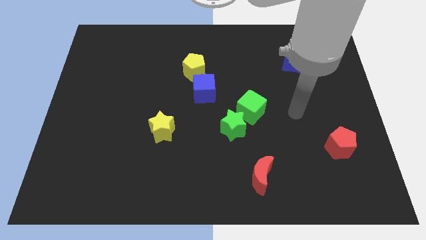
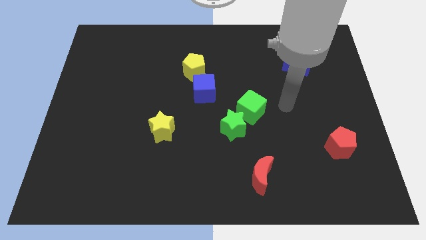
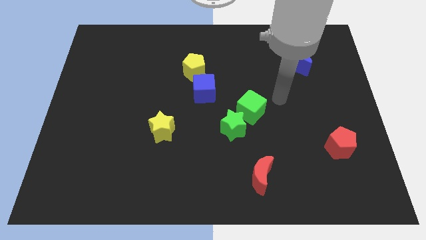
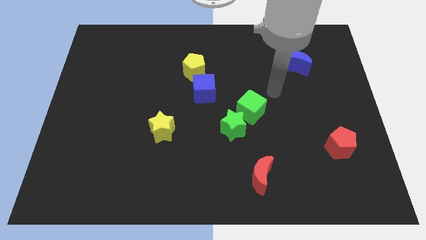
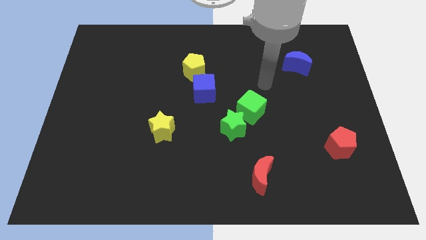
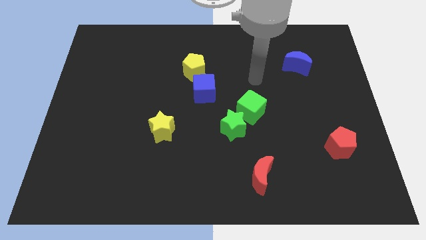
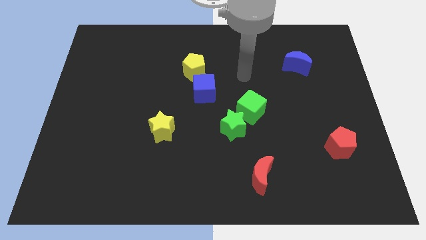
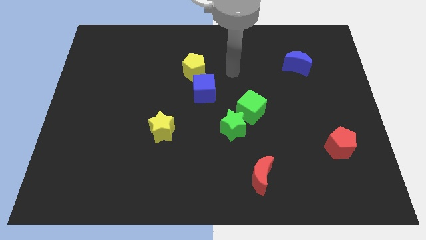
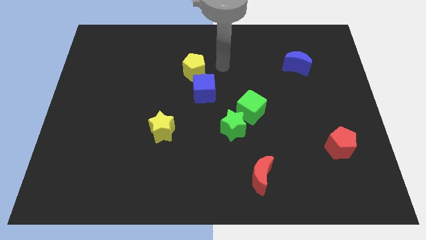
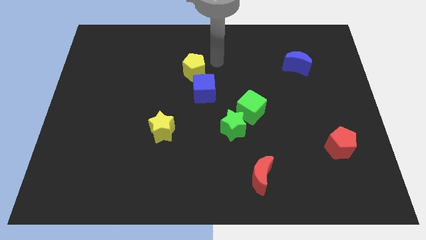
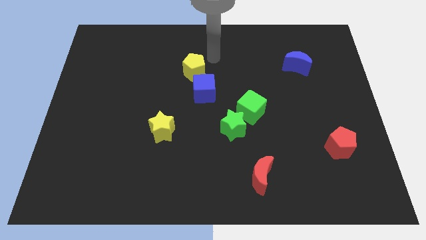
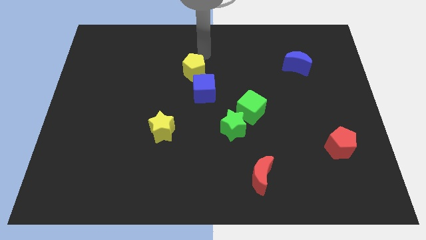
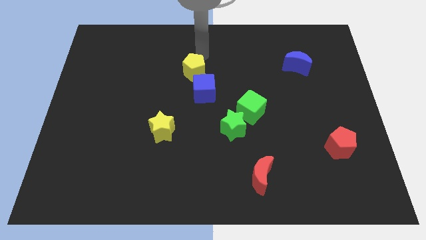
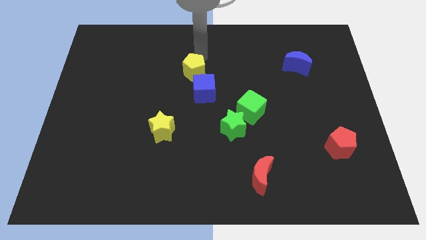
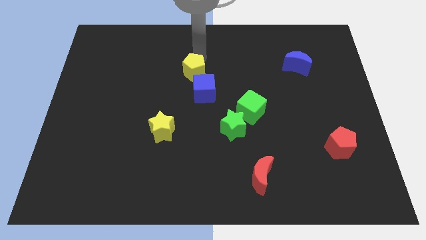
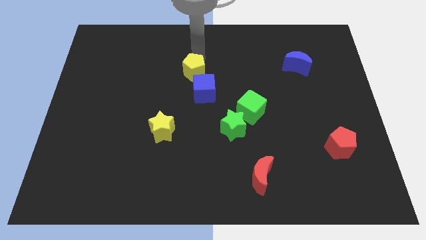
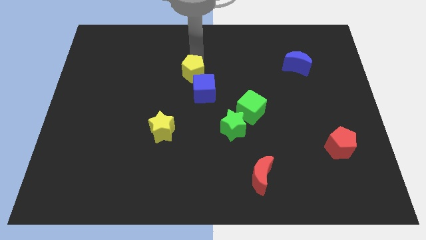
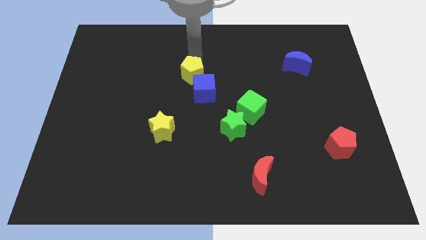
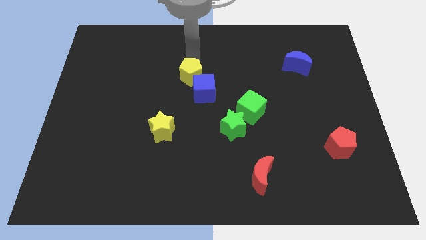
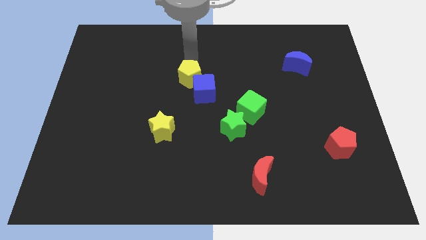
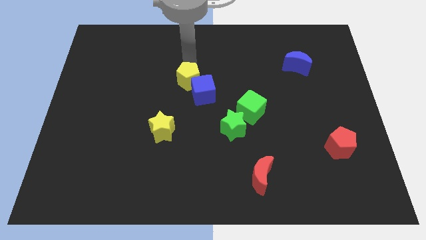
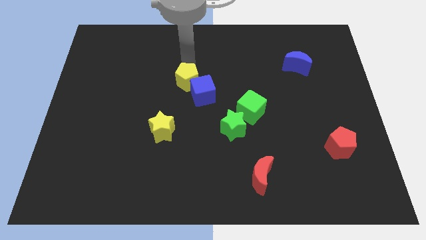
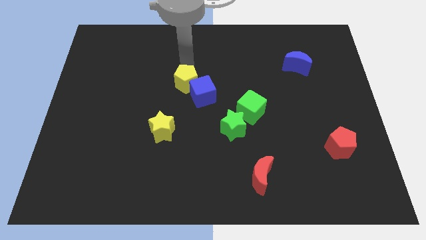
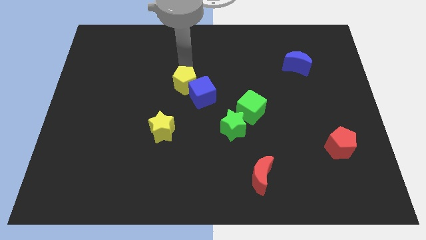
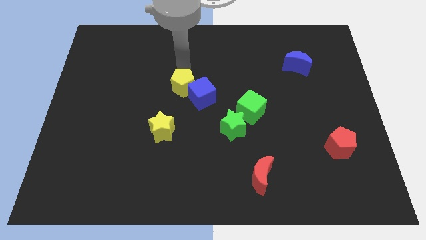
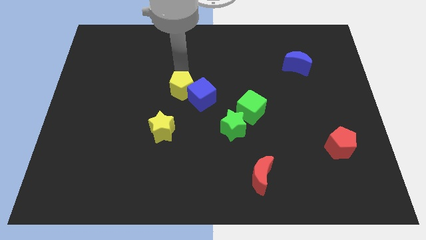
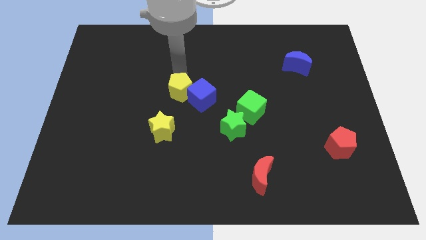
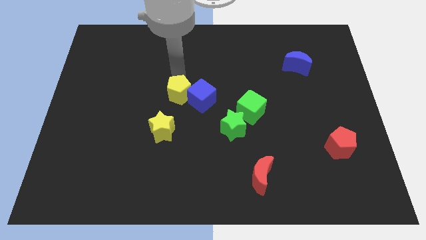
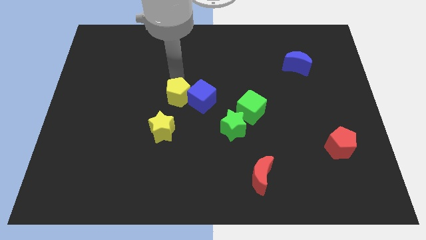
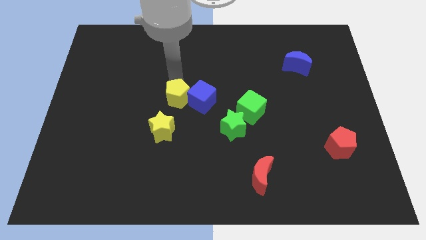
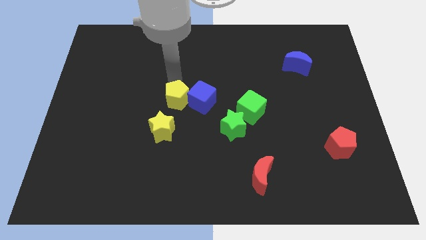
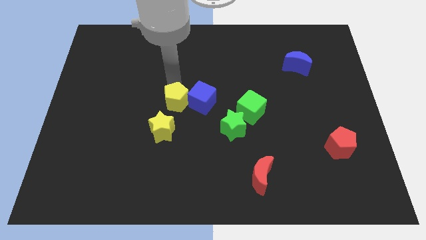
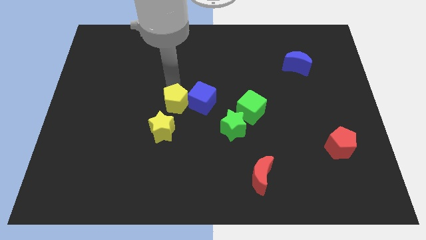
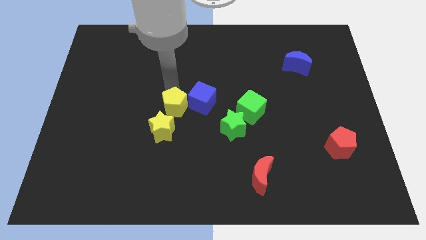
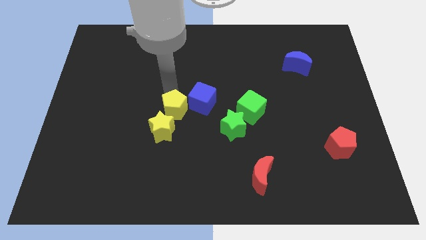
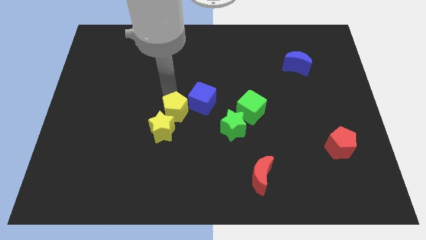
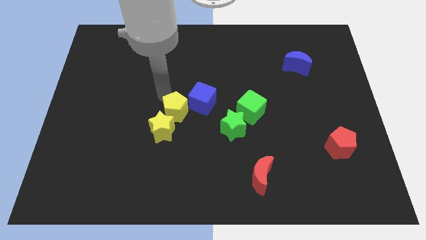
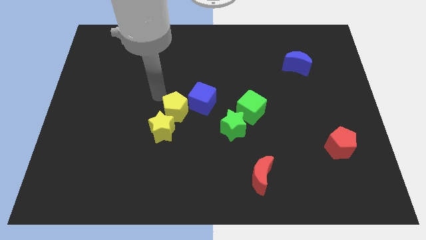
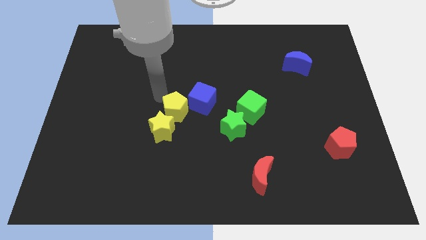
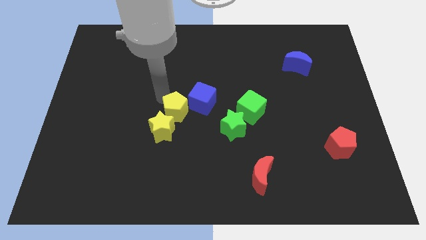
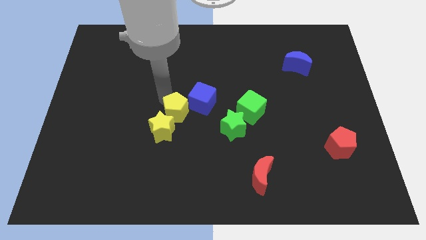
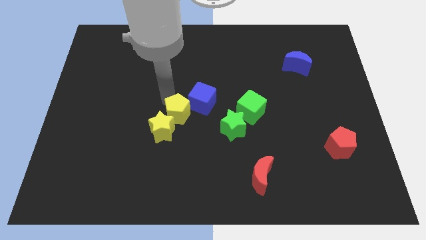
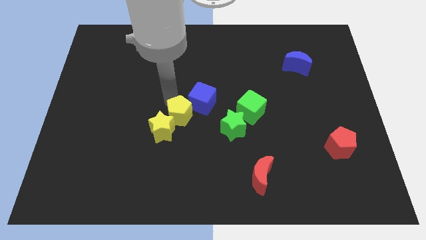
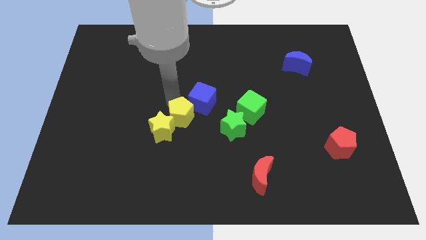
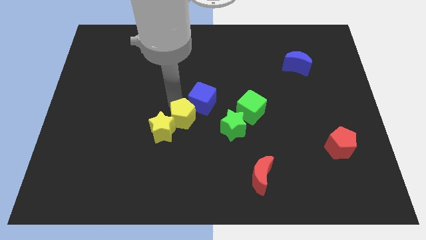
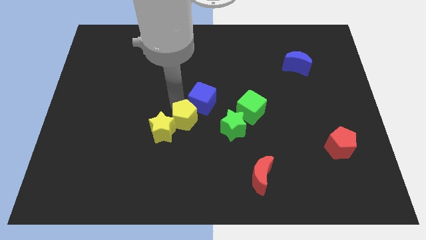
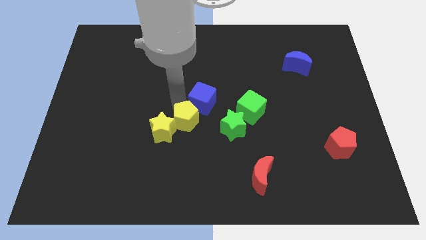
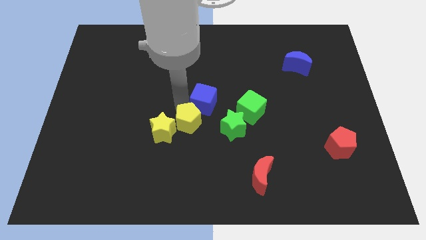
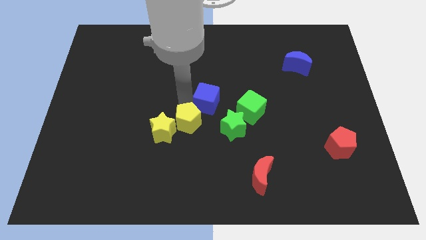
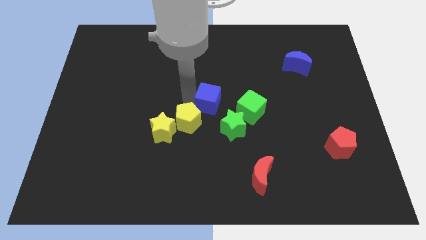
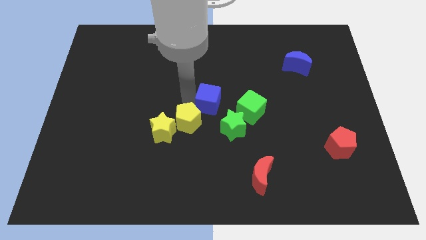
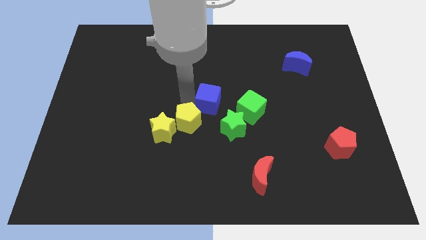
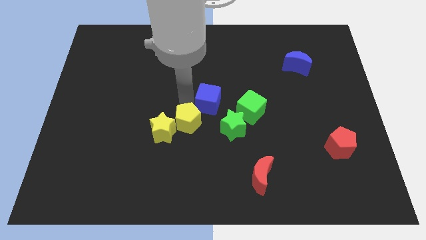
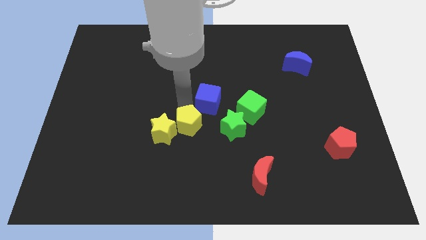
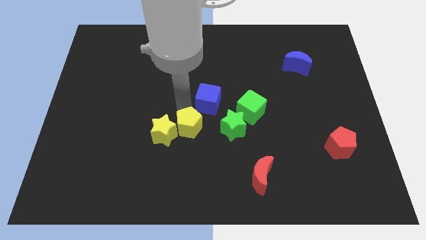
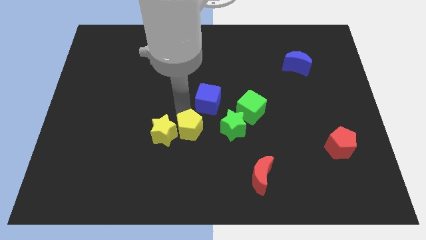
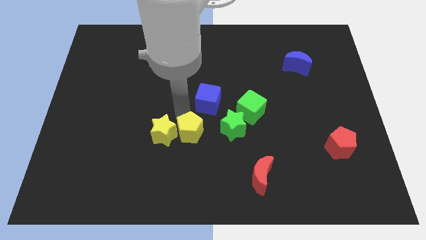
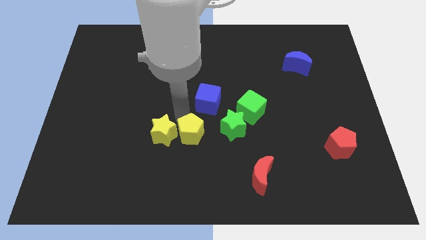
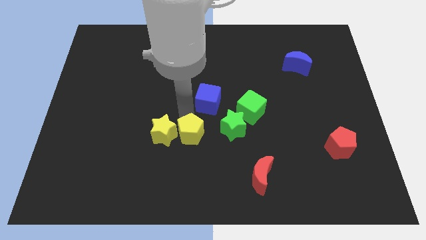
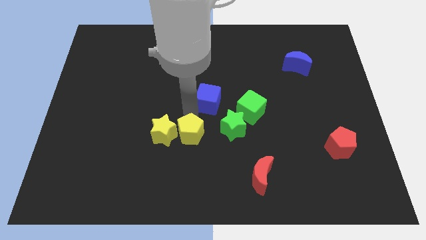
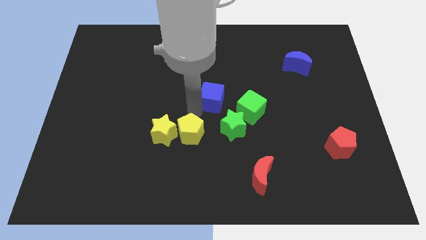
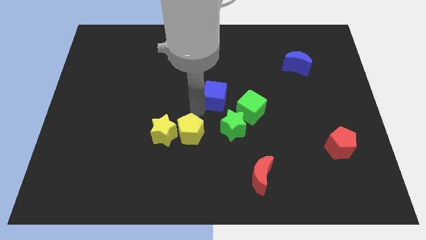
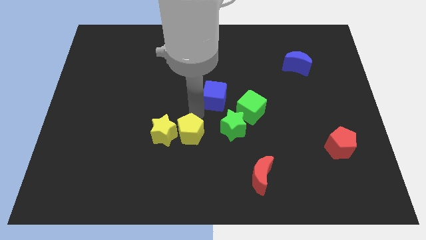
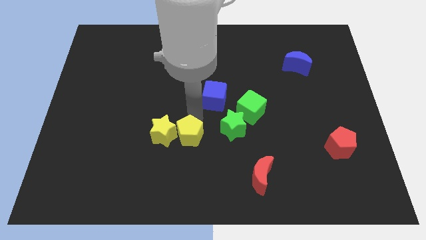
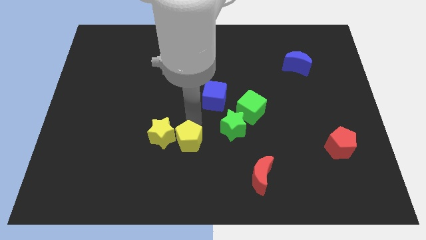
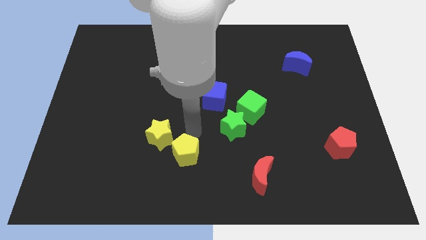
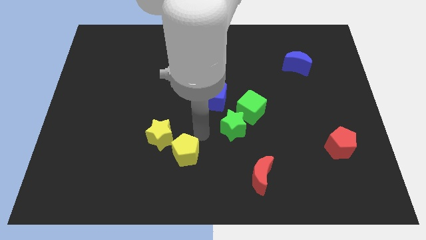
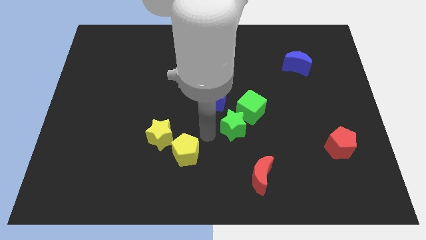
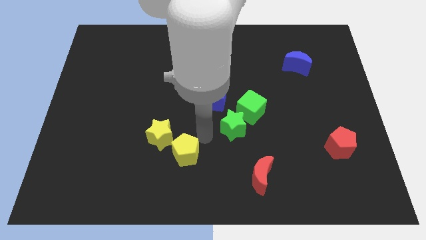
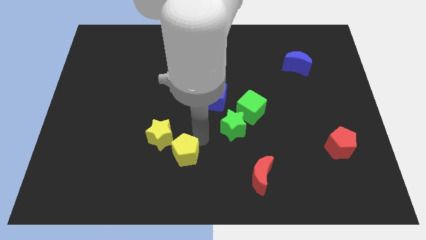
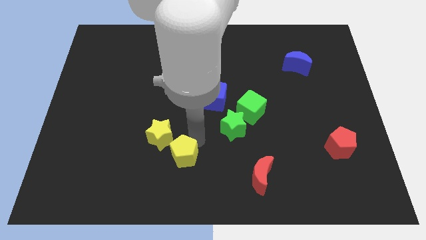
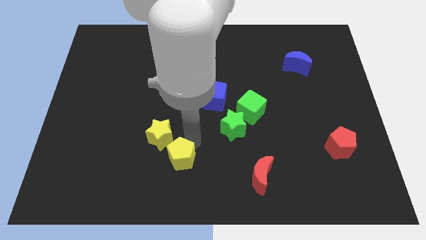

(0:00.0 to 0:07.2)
move the yellow pentagon to the bottom of the yellow star
